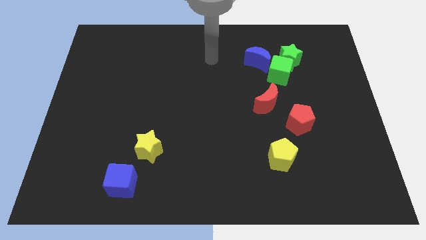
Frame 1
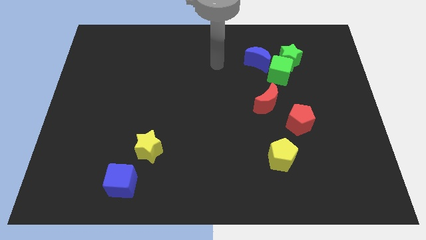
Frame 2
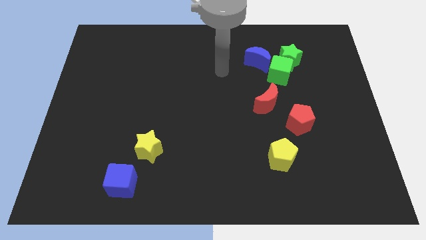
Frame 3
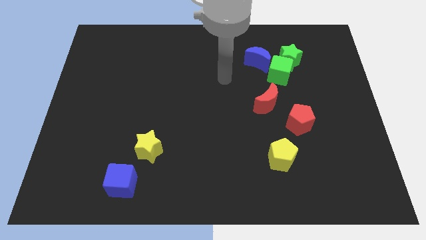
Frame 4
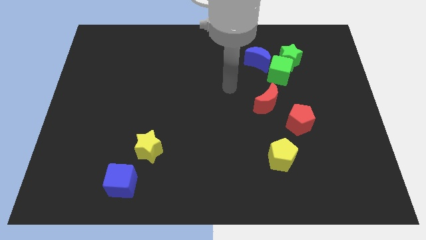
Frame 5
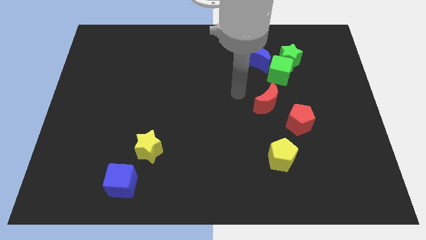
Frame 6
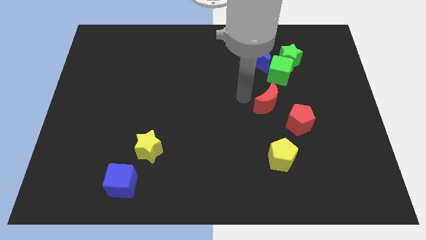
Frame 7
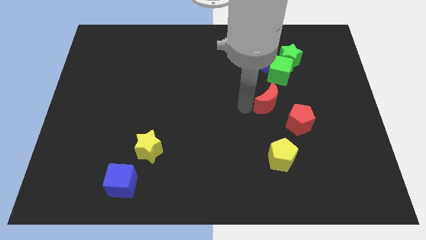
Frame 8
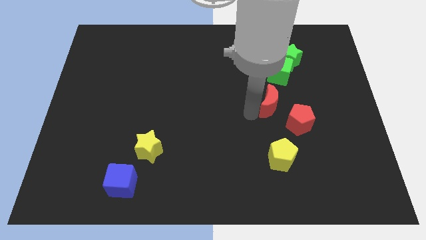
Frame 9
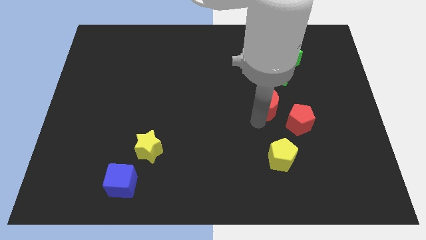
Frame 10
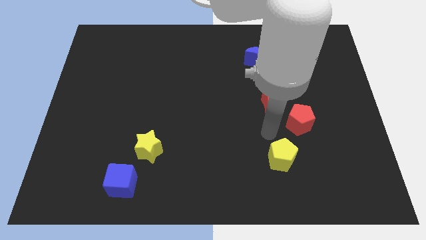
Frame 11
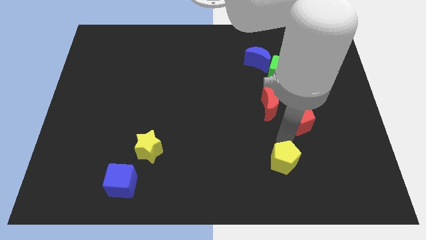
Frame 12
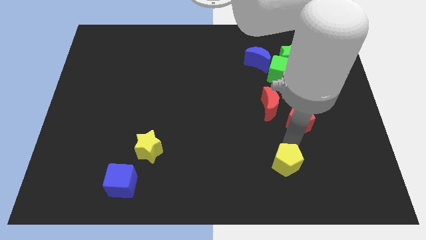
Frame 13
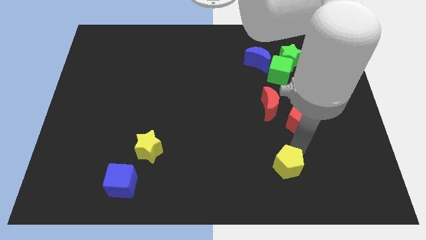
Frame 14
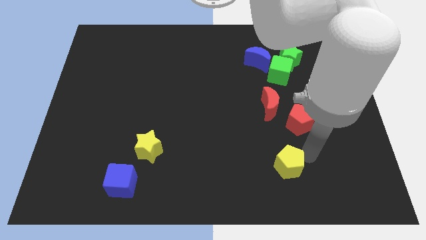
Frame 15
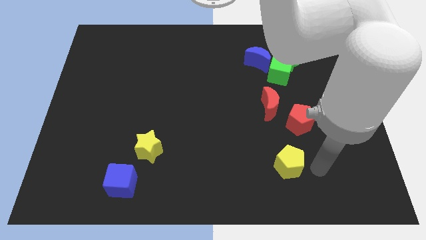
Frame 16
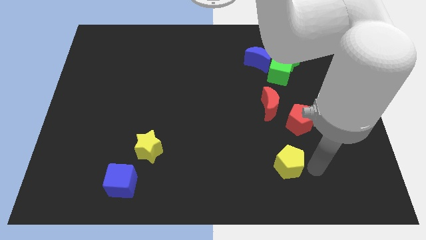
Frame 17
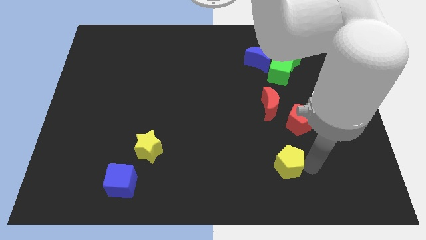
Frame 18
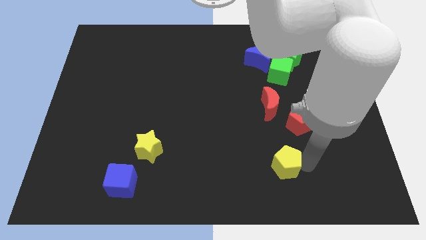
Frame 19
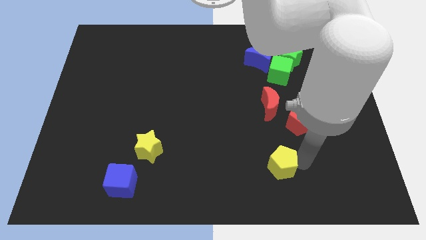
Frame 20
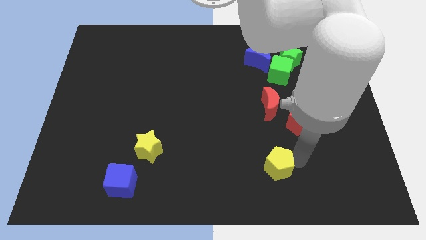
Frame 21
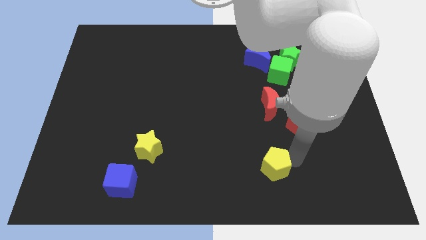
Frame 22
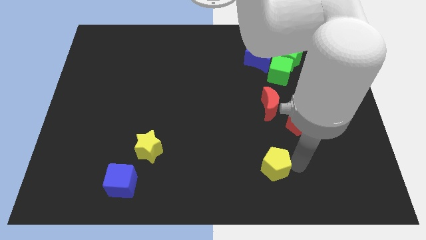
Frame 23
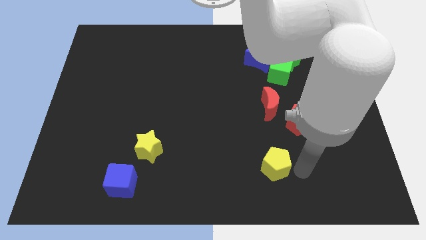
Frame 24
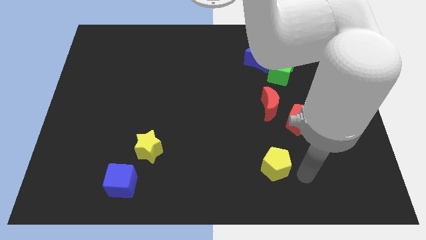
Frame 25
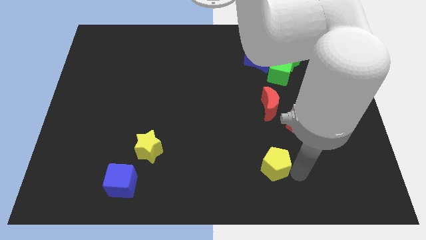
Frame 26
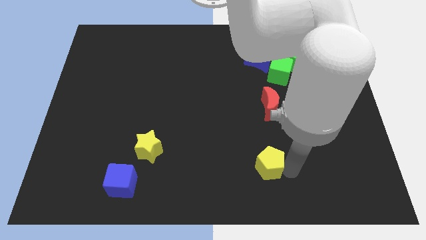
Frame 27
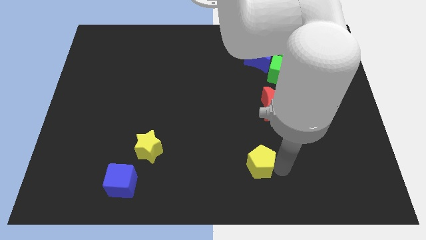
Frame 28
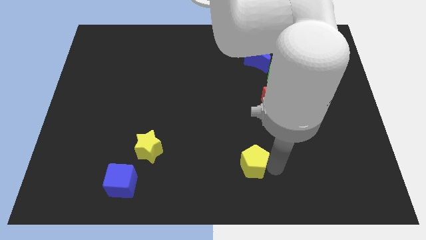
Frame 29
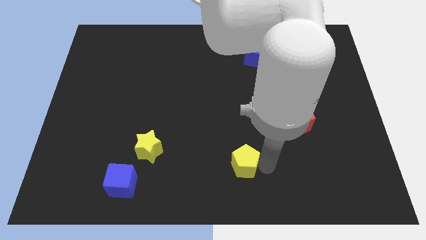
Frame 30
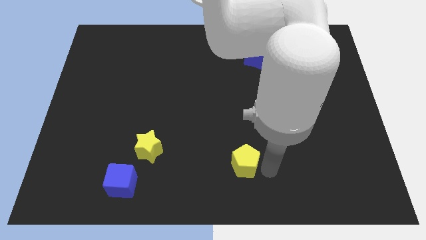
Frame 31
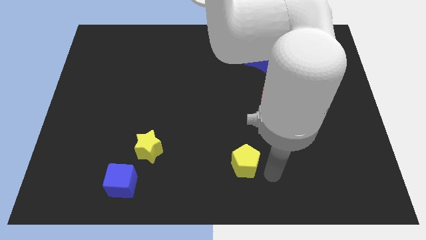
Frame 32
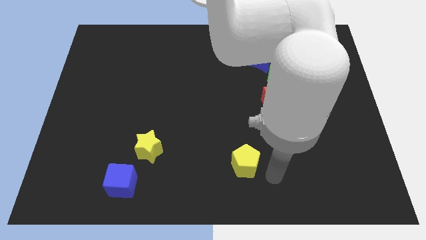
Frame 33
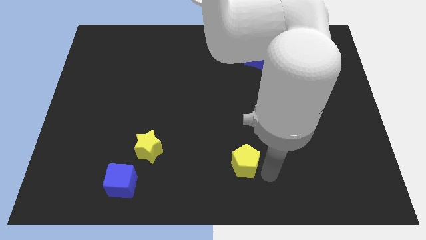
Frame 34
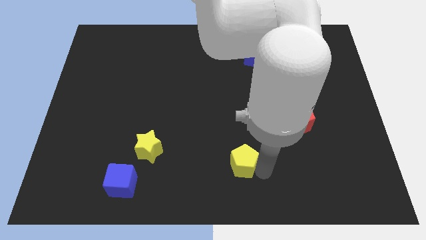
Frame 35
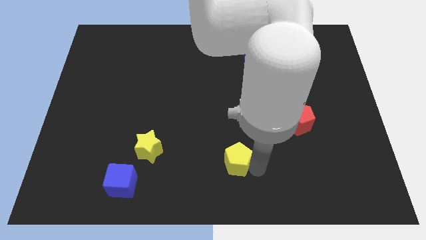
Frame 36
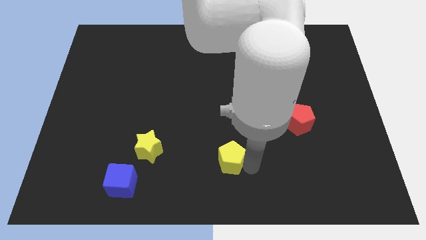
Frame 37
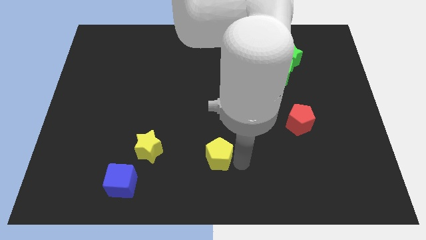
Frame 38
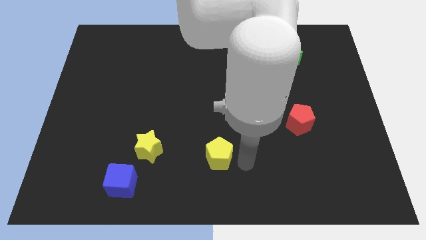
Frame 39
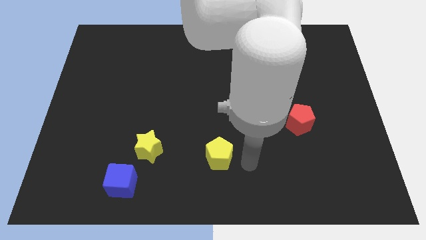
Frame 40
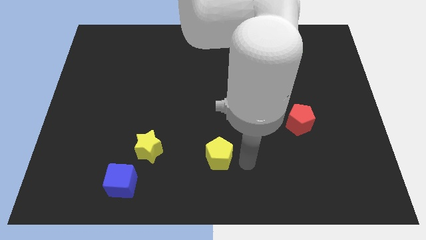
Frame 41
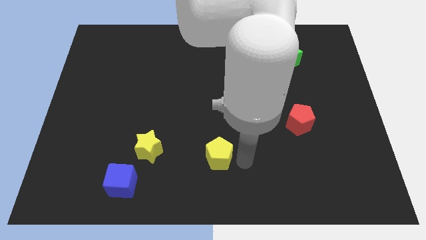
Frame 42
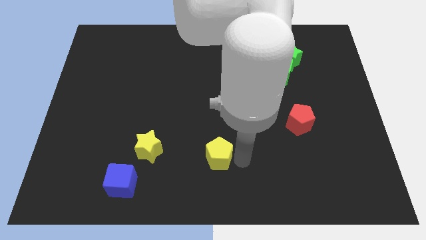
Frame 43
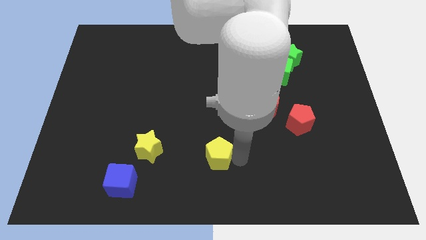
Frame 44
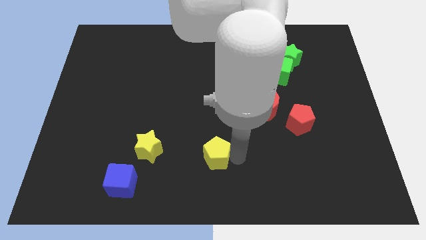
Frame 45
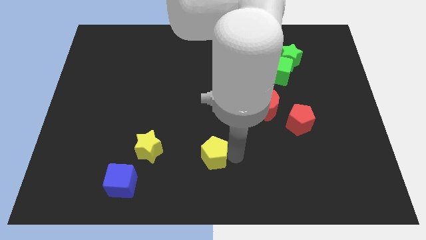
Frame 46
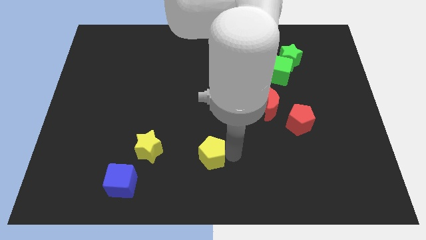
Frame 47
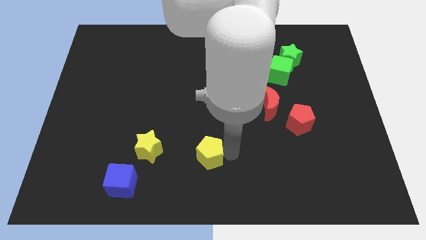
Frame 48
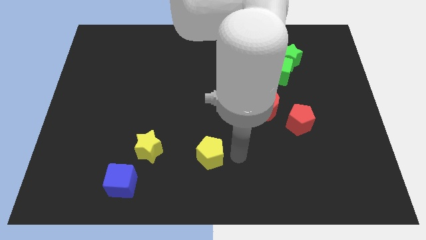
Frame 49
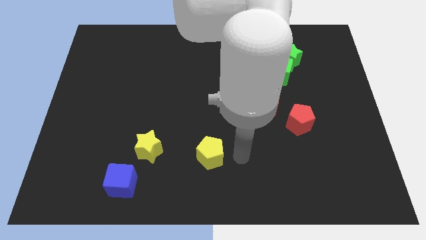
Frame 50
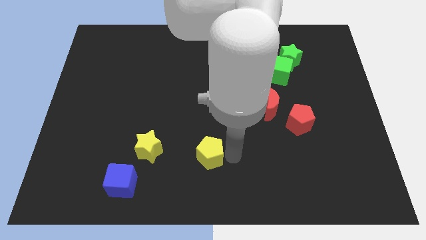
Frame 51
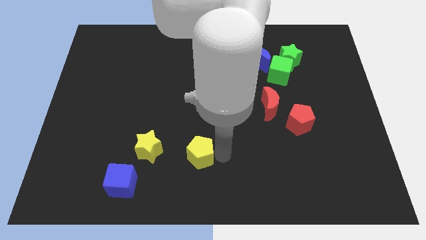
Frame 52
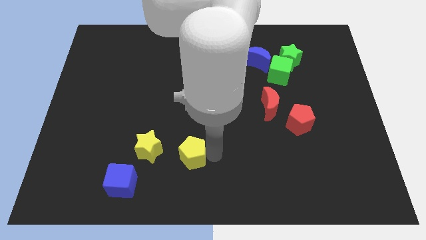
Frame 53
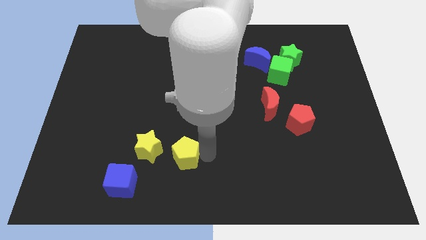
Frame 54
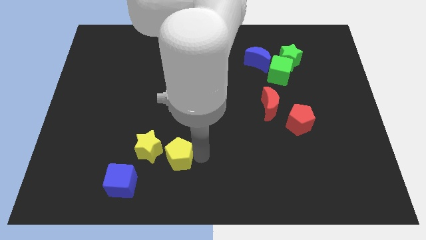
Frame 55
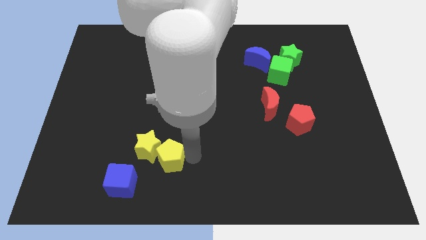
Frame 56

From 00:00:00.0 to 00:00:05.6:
push the yellow pentagon to the yellow star

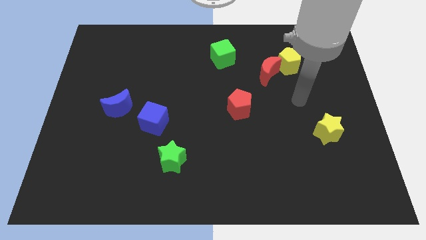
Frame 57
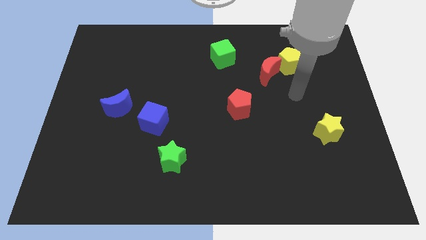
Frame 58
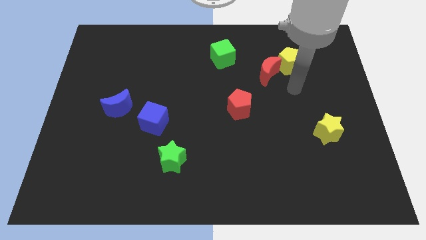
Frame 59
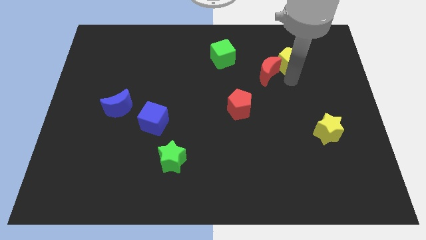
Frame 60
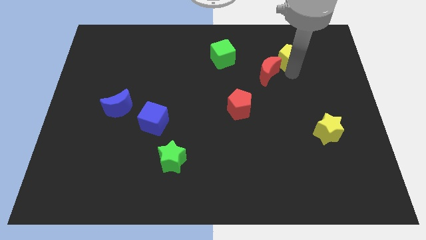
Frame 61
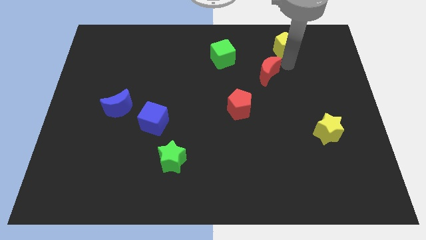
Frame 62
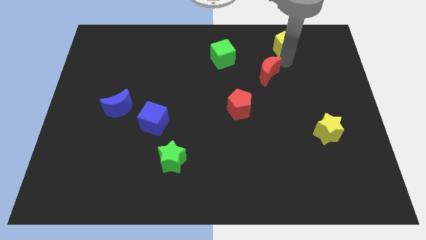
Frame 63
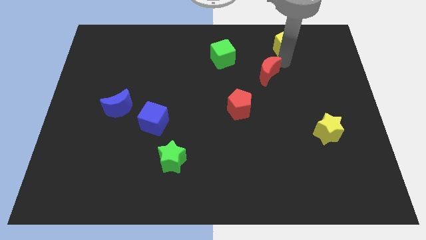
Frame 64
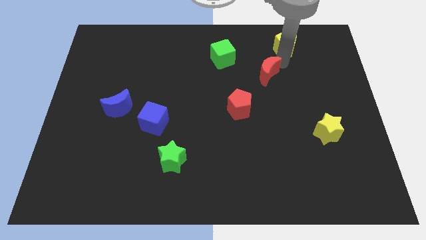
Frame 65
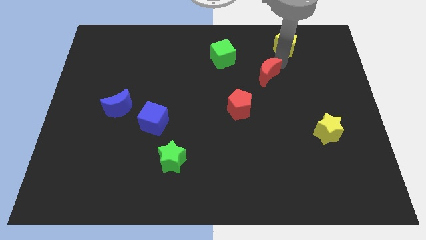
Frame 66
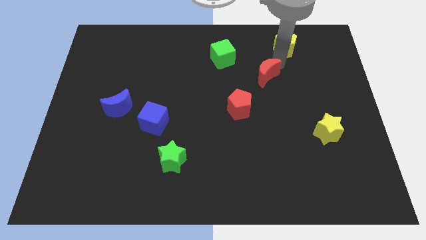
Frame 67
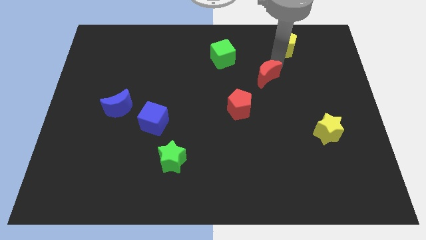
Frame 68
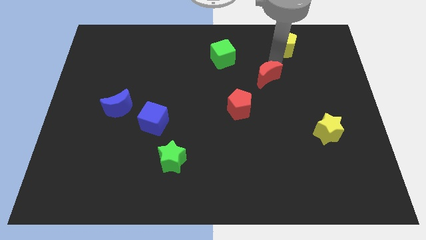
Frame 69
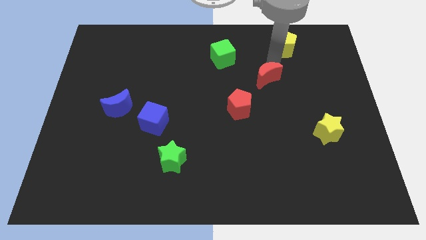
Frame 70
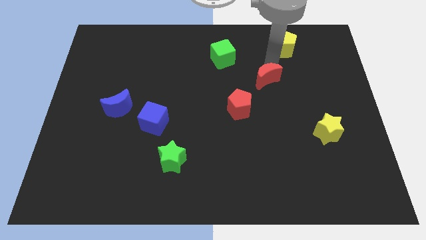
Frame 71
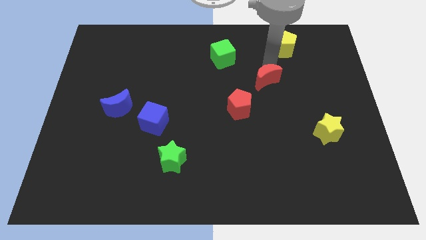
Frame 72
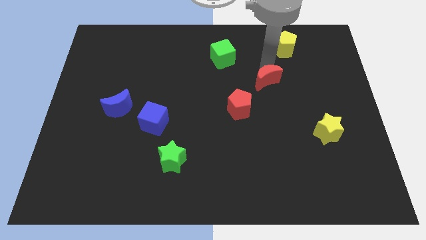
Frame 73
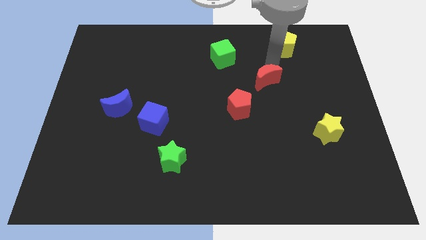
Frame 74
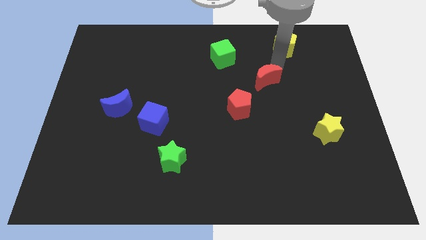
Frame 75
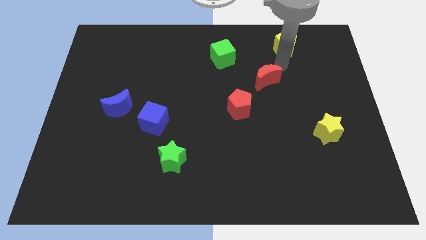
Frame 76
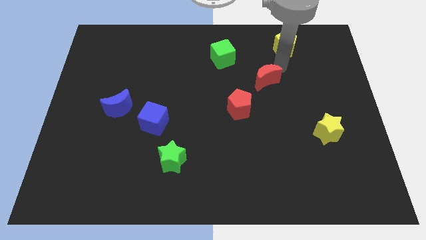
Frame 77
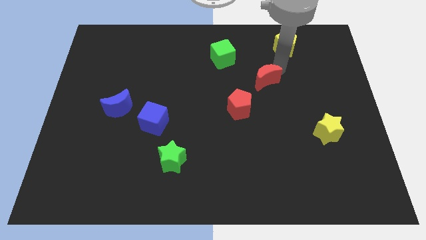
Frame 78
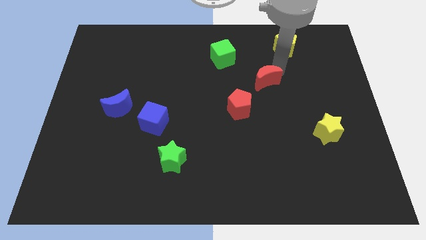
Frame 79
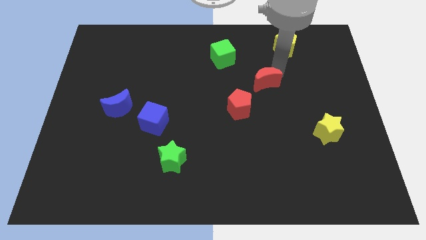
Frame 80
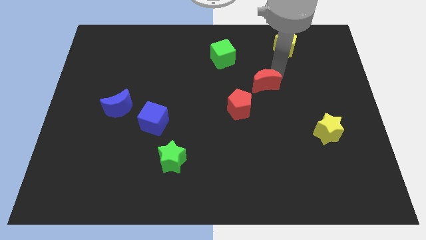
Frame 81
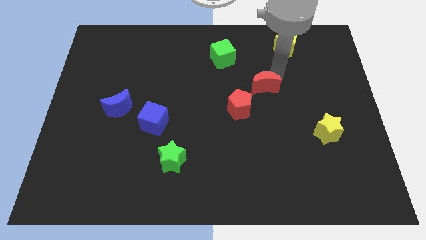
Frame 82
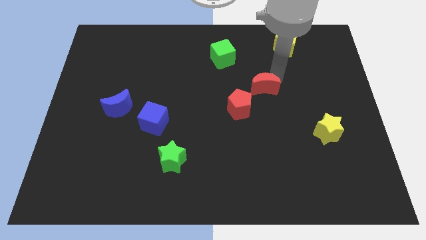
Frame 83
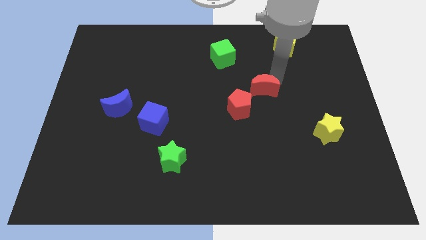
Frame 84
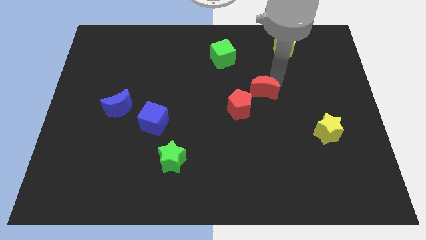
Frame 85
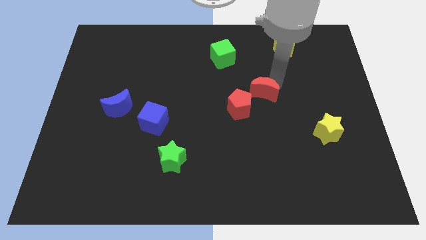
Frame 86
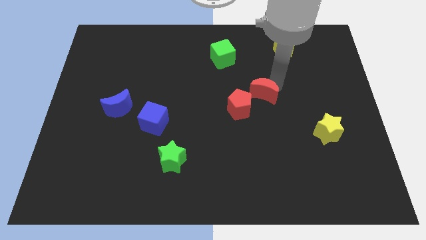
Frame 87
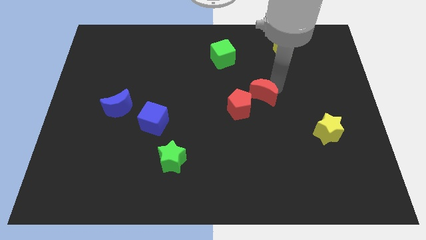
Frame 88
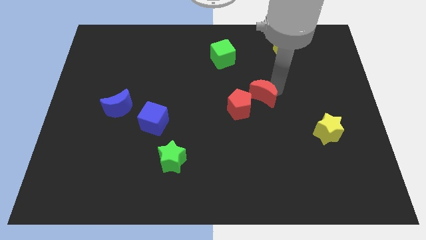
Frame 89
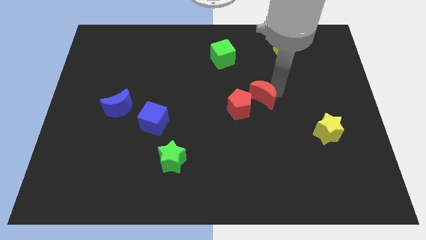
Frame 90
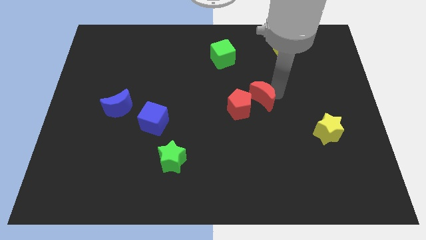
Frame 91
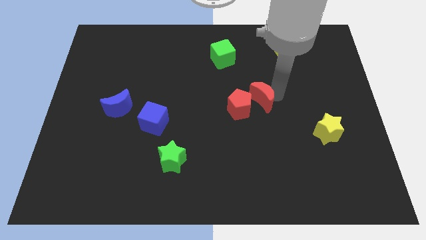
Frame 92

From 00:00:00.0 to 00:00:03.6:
move the red moon next to the red pentagon
